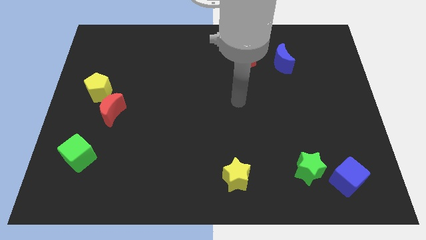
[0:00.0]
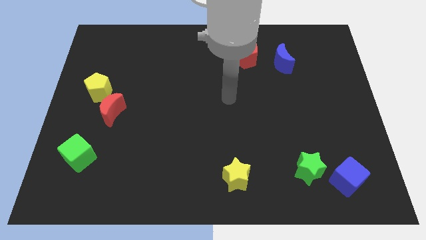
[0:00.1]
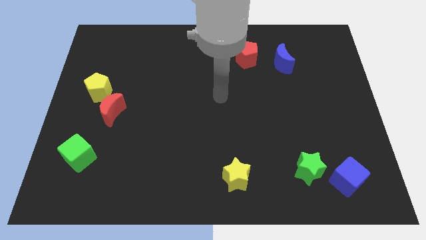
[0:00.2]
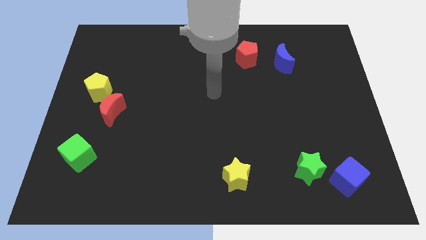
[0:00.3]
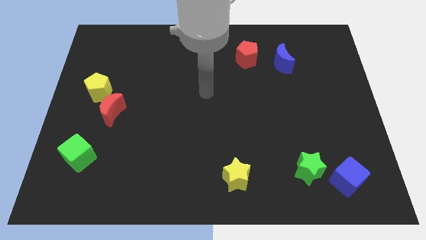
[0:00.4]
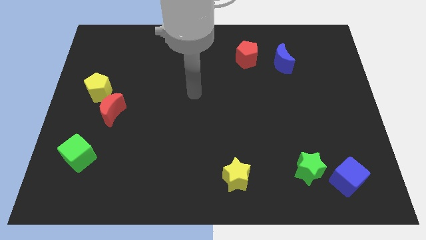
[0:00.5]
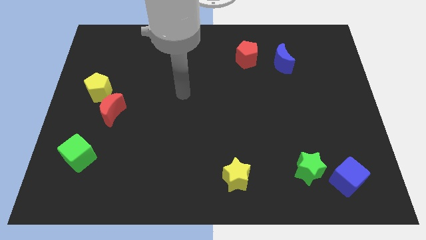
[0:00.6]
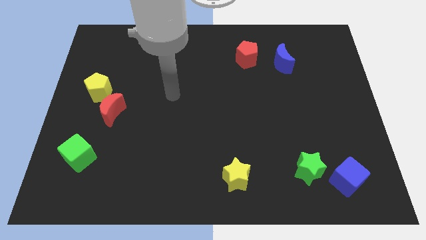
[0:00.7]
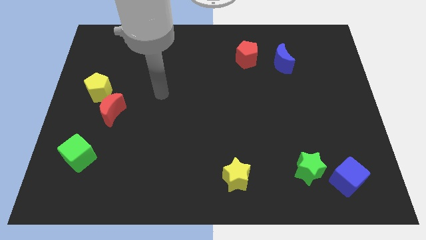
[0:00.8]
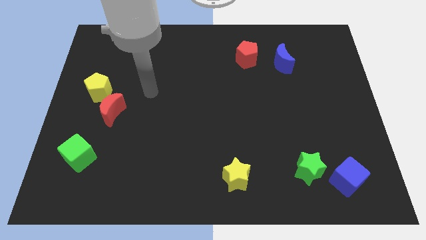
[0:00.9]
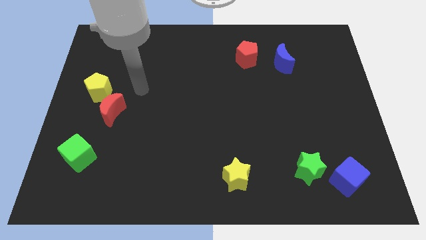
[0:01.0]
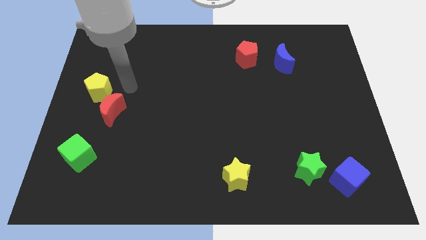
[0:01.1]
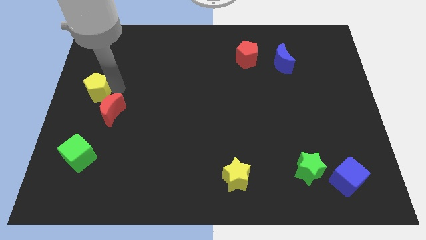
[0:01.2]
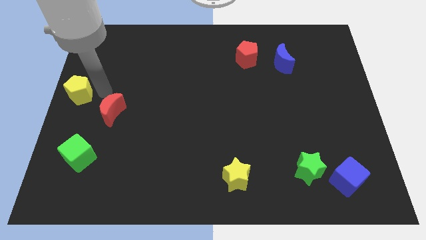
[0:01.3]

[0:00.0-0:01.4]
separate the red moon from the yellow pentagon

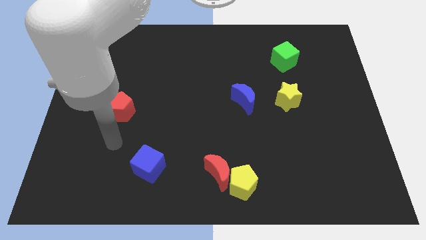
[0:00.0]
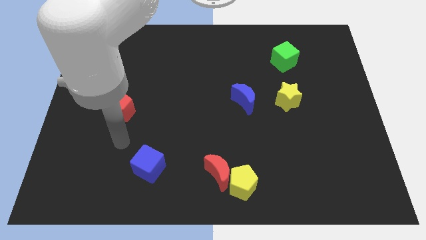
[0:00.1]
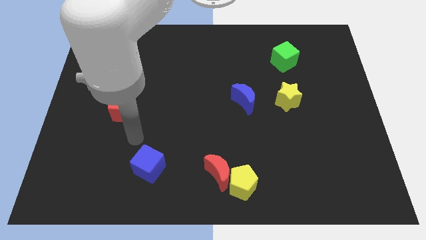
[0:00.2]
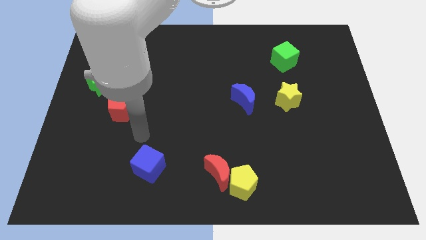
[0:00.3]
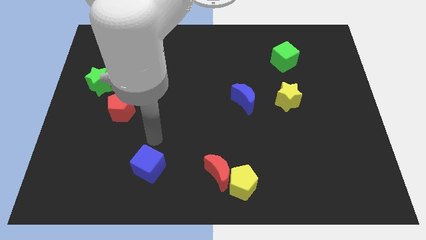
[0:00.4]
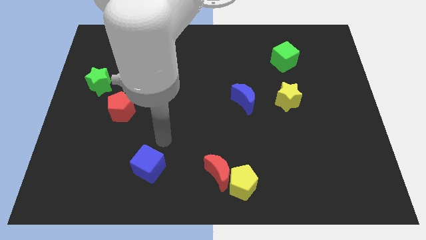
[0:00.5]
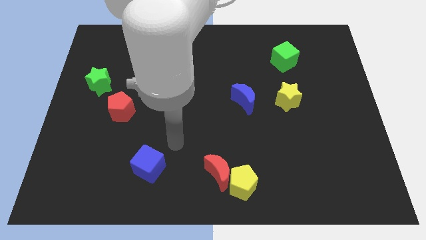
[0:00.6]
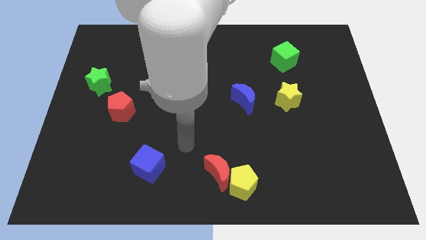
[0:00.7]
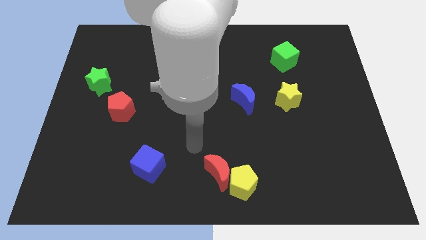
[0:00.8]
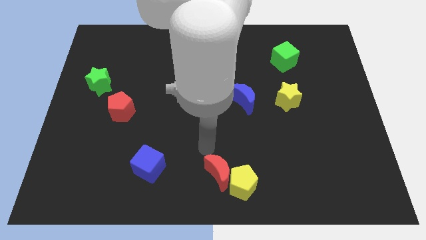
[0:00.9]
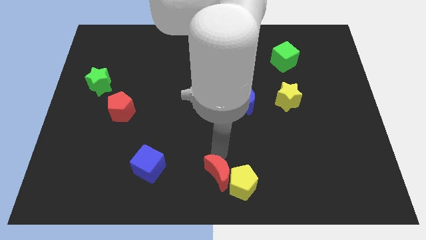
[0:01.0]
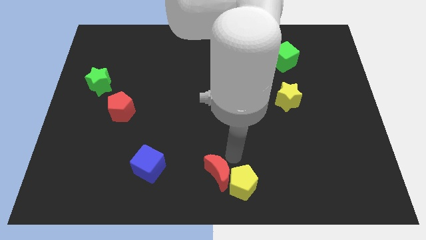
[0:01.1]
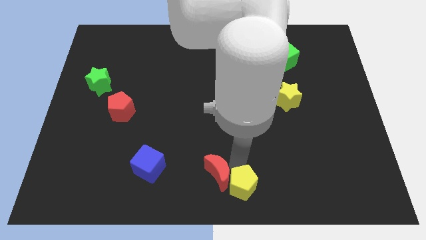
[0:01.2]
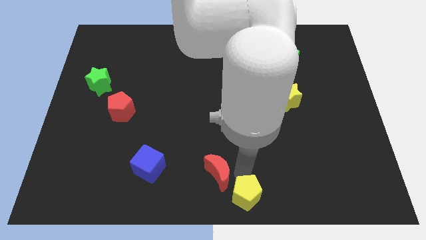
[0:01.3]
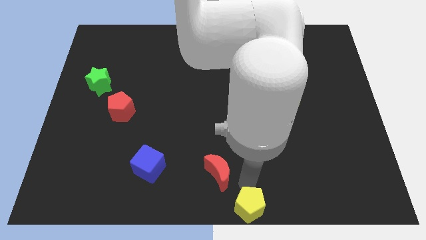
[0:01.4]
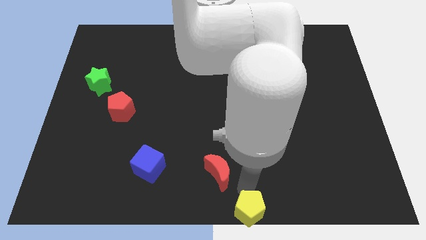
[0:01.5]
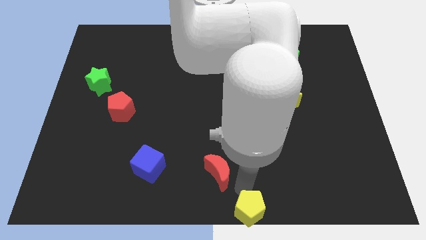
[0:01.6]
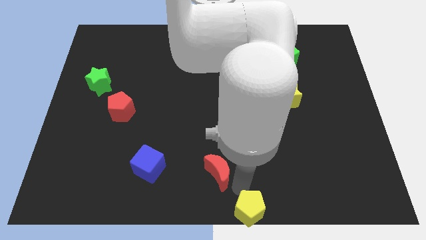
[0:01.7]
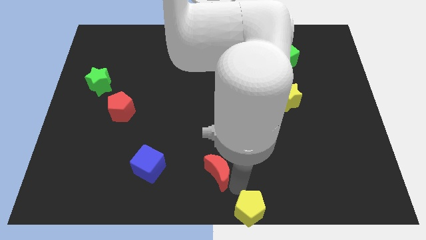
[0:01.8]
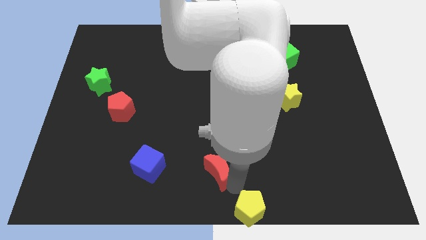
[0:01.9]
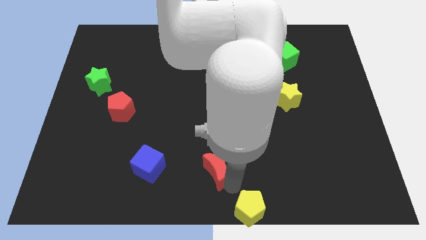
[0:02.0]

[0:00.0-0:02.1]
pull the red moon apart from the yellow pentagon

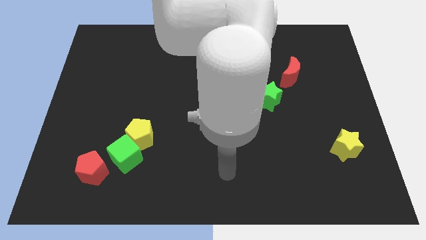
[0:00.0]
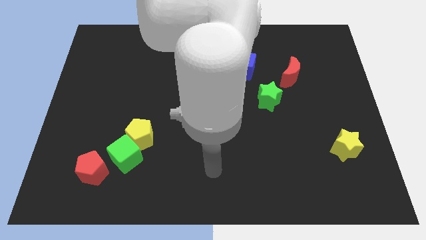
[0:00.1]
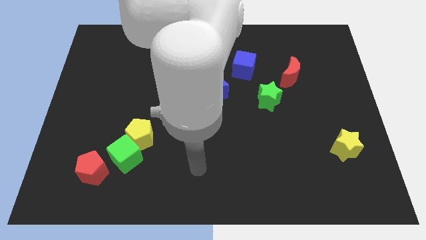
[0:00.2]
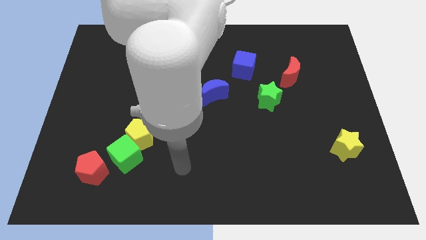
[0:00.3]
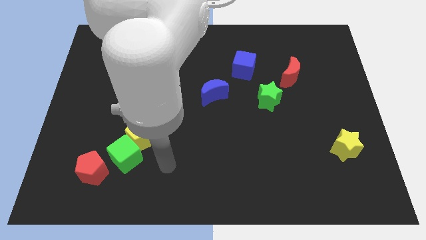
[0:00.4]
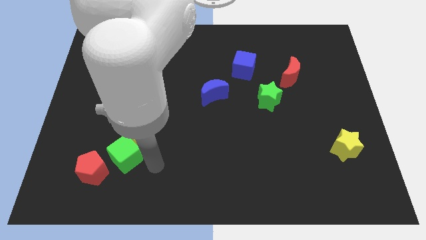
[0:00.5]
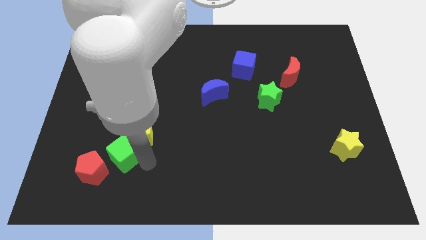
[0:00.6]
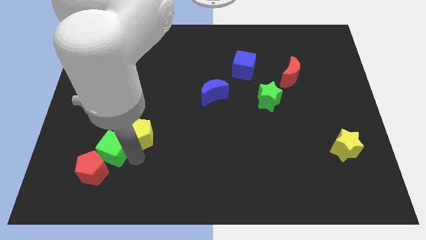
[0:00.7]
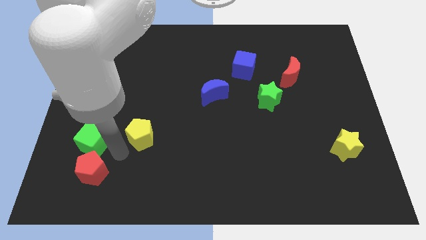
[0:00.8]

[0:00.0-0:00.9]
separate the yellow pentagon from the green cube

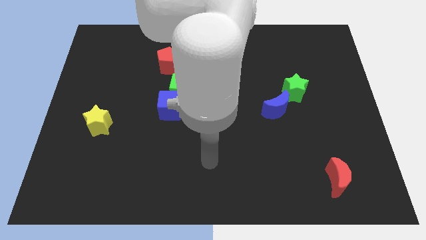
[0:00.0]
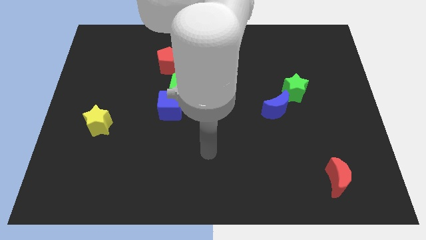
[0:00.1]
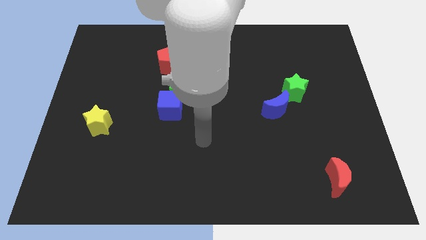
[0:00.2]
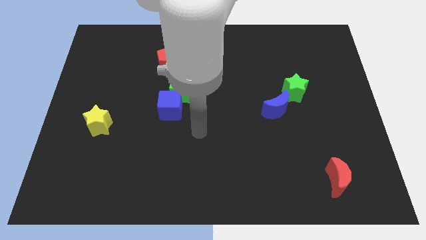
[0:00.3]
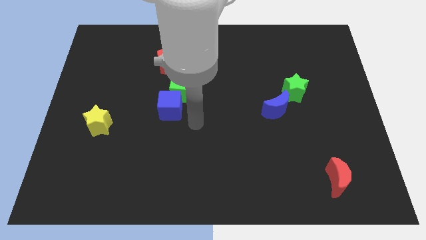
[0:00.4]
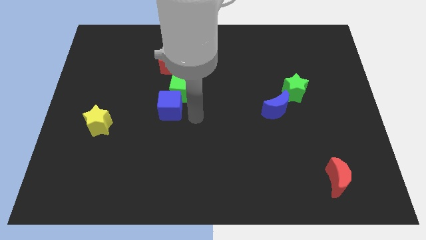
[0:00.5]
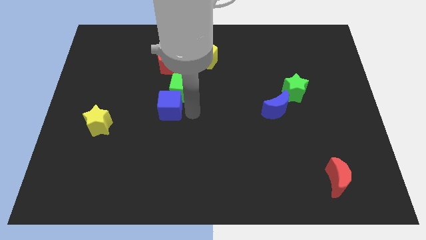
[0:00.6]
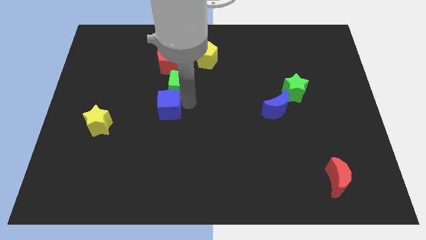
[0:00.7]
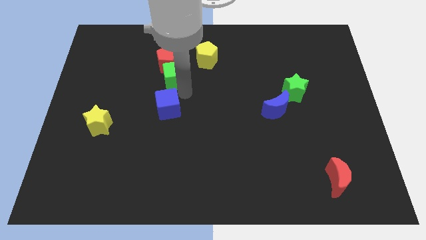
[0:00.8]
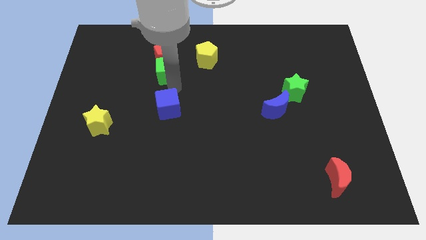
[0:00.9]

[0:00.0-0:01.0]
separate the blue cube from the green cube

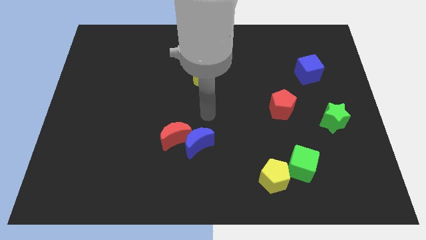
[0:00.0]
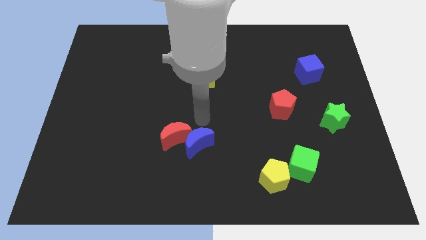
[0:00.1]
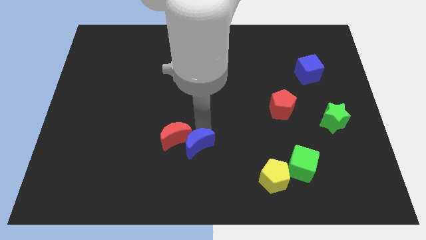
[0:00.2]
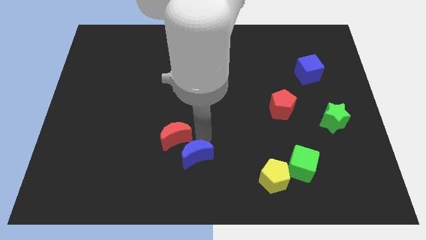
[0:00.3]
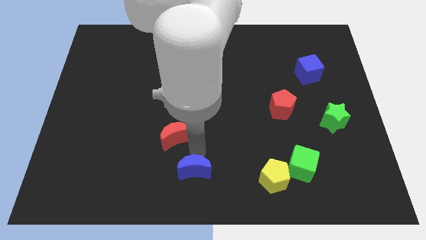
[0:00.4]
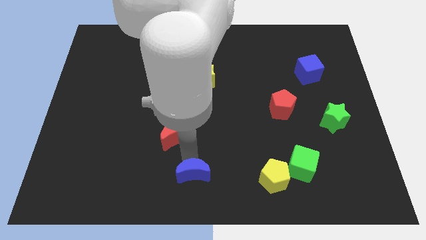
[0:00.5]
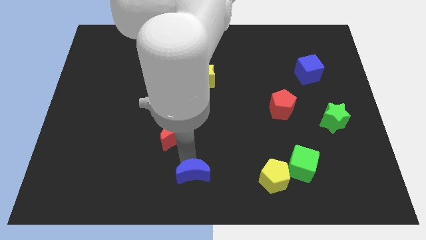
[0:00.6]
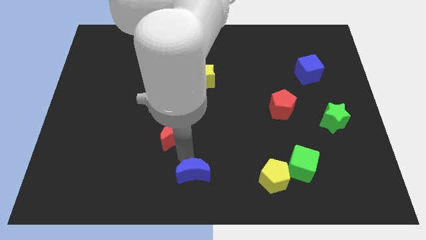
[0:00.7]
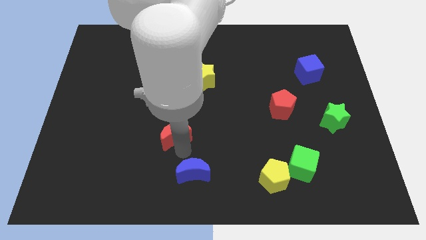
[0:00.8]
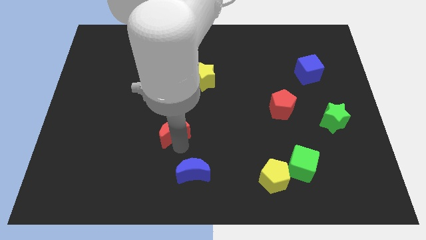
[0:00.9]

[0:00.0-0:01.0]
separate the red moon from the blue moon

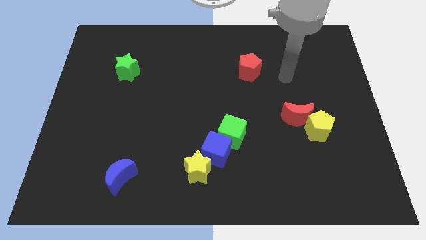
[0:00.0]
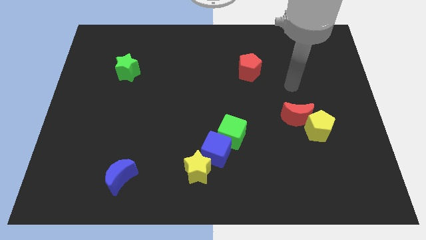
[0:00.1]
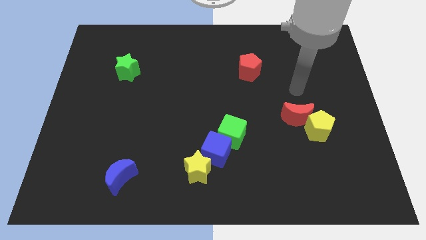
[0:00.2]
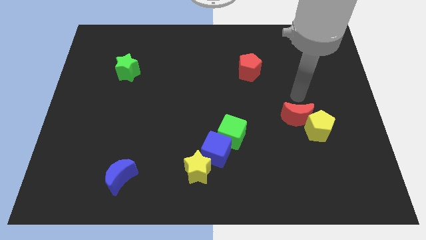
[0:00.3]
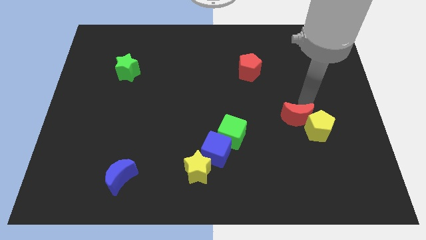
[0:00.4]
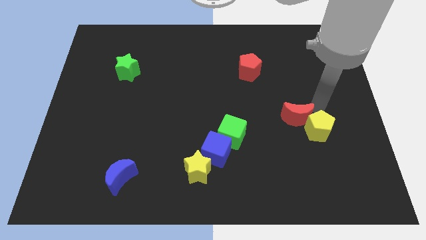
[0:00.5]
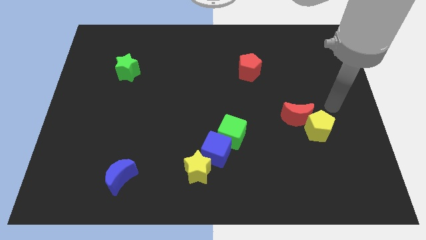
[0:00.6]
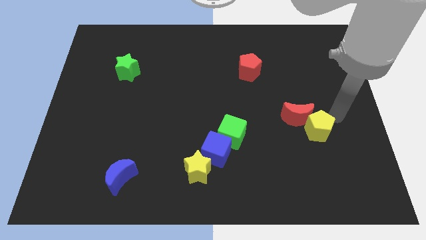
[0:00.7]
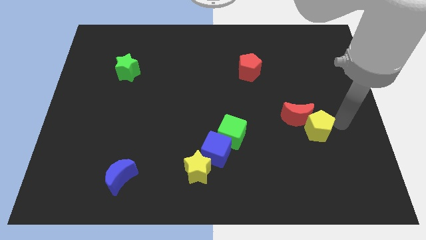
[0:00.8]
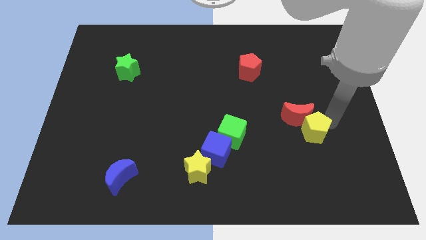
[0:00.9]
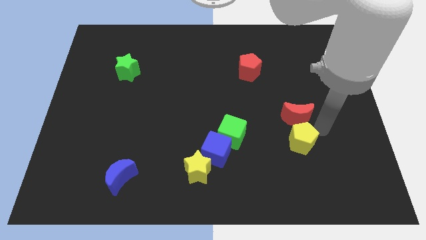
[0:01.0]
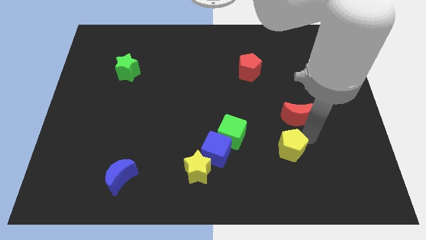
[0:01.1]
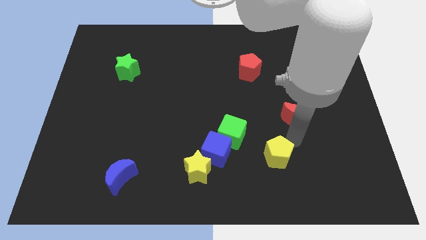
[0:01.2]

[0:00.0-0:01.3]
move the red moon away from the yellow pentagon

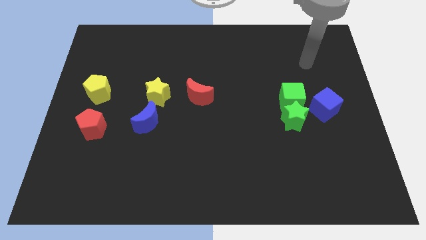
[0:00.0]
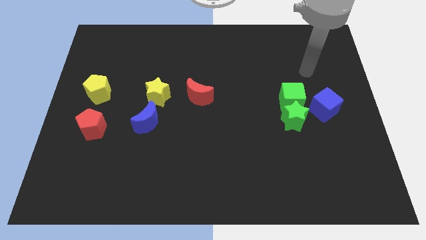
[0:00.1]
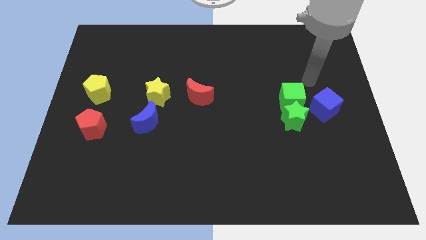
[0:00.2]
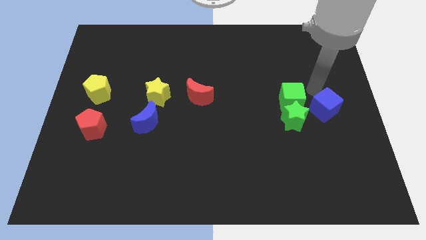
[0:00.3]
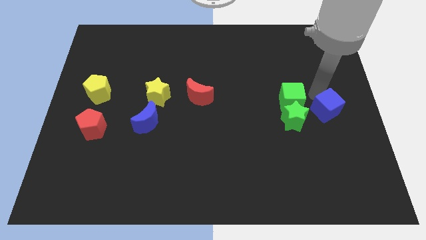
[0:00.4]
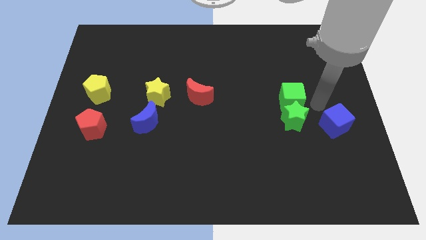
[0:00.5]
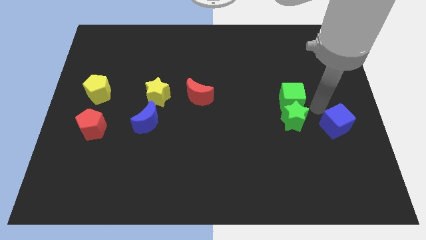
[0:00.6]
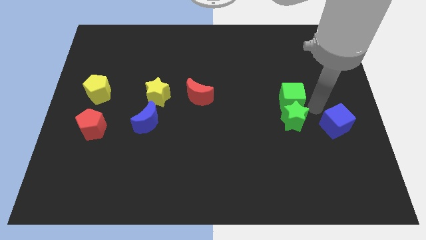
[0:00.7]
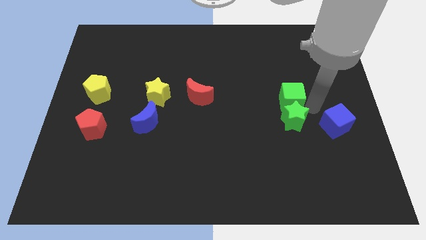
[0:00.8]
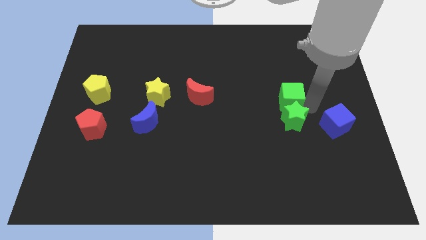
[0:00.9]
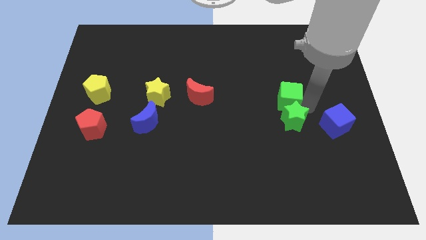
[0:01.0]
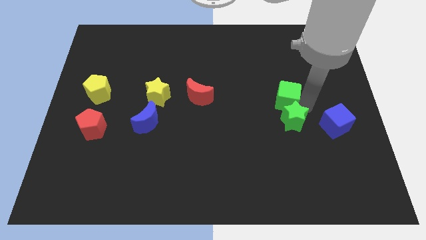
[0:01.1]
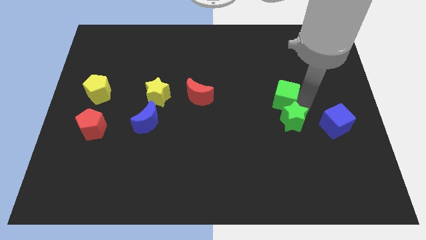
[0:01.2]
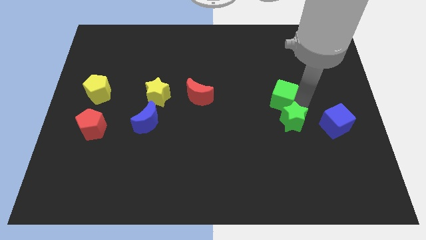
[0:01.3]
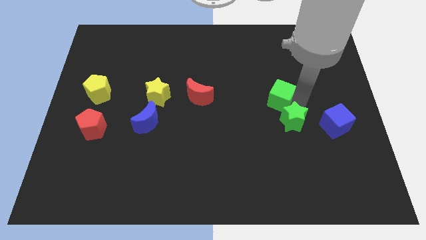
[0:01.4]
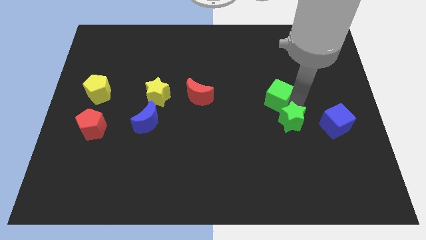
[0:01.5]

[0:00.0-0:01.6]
move the green cube away from the green star and blue cube
